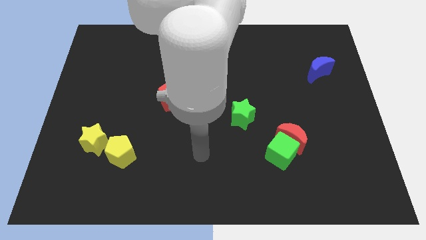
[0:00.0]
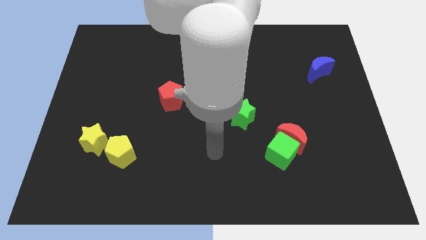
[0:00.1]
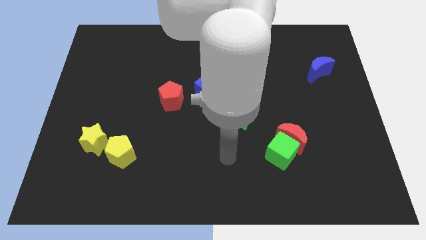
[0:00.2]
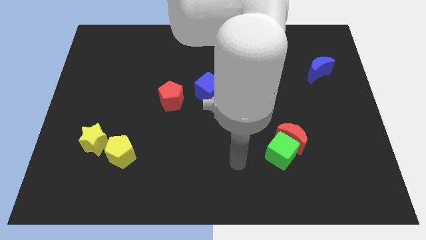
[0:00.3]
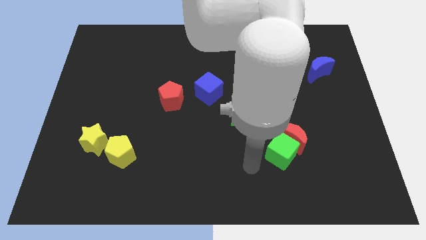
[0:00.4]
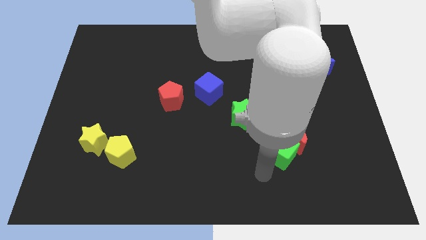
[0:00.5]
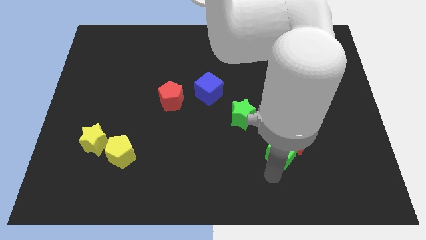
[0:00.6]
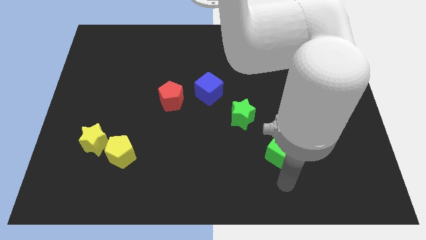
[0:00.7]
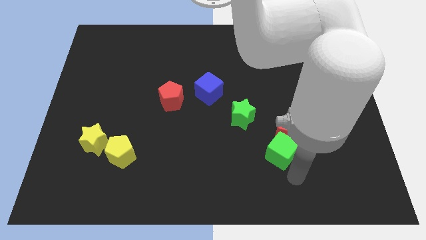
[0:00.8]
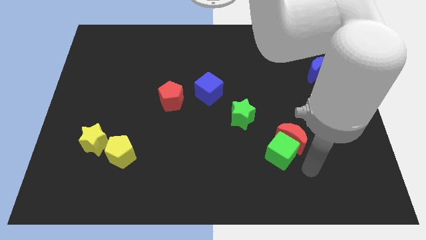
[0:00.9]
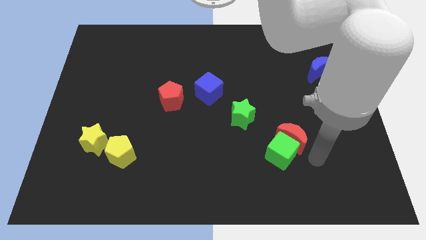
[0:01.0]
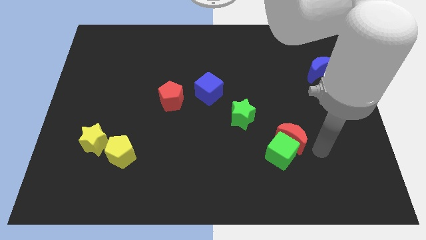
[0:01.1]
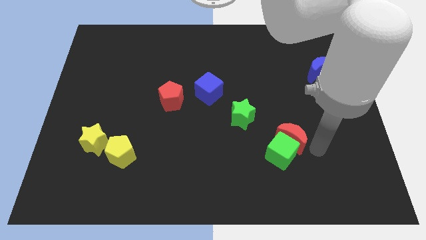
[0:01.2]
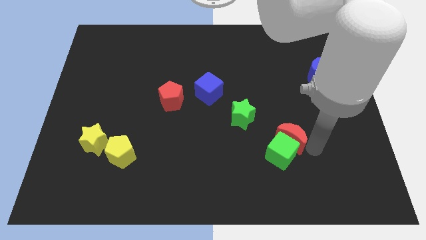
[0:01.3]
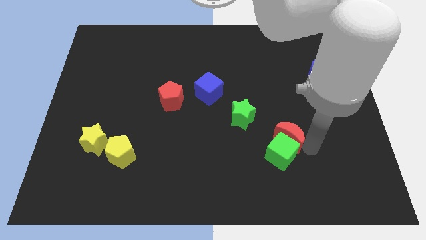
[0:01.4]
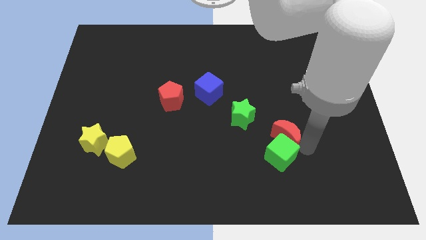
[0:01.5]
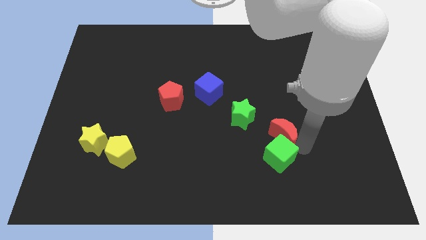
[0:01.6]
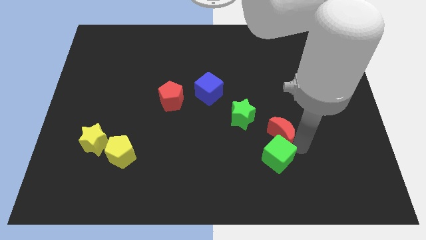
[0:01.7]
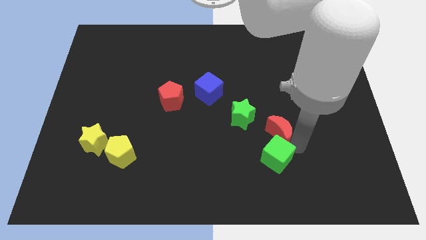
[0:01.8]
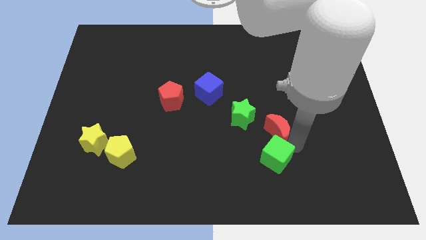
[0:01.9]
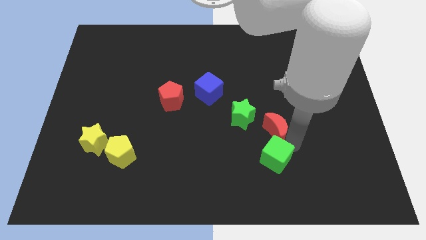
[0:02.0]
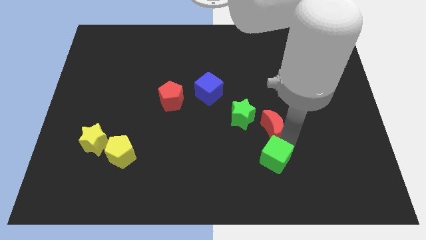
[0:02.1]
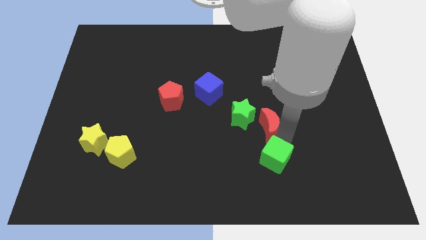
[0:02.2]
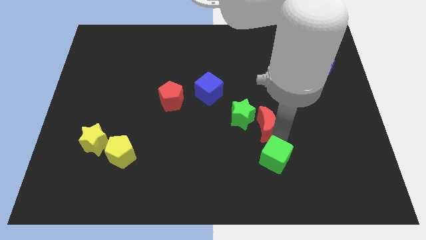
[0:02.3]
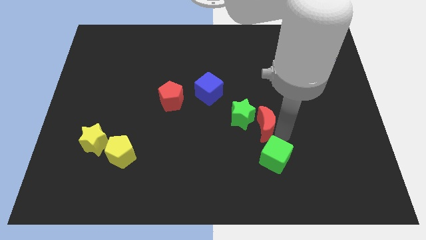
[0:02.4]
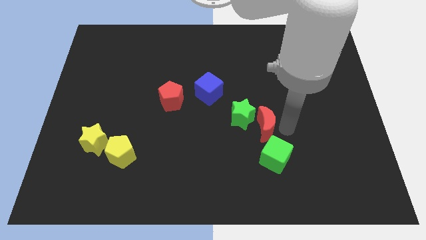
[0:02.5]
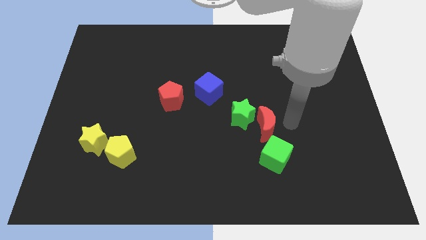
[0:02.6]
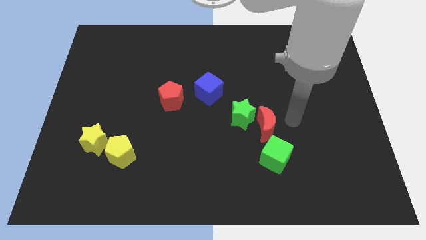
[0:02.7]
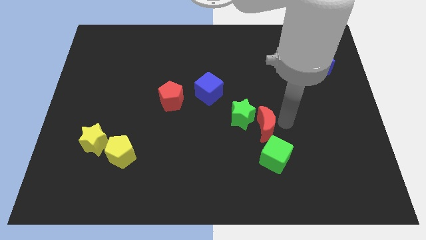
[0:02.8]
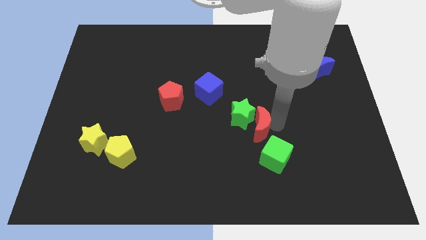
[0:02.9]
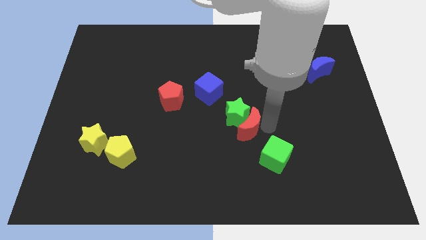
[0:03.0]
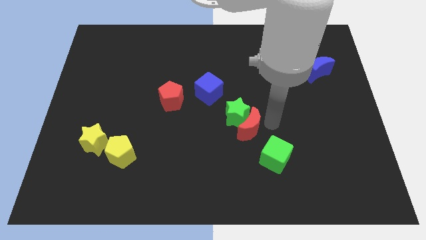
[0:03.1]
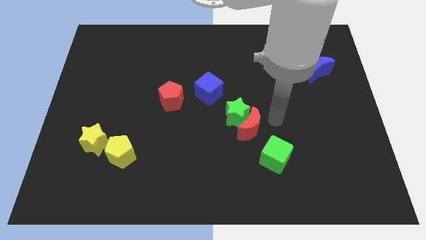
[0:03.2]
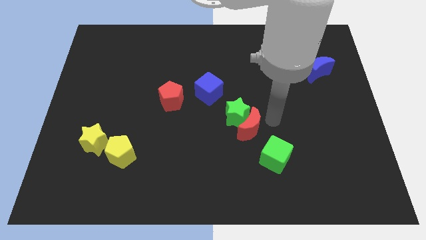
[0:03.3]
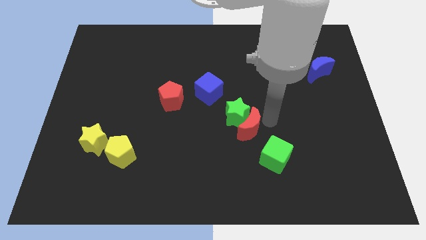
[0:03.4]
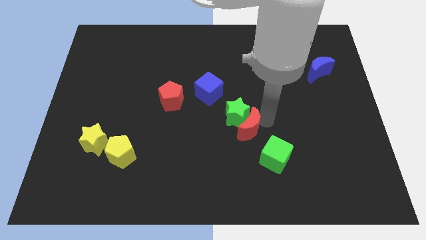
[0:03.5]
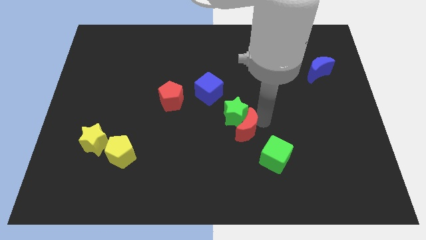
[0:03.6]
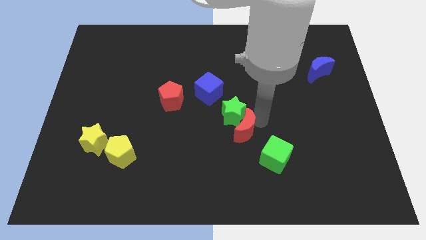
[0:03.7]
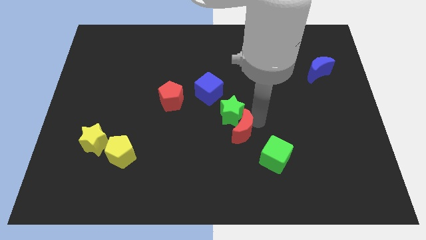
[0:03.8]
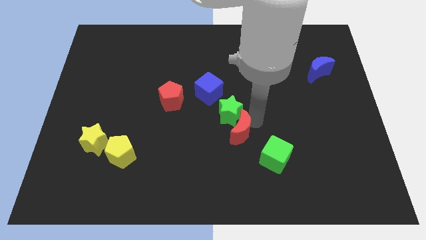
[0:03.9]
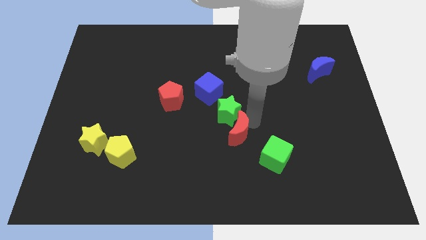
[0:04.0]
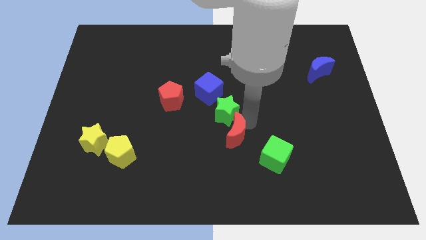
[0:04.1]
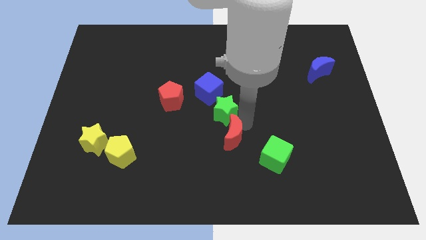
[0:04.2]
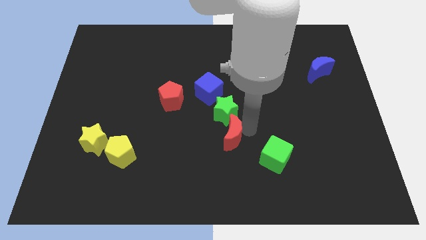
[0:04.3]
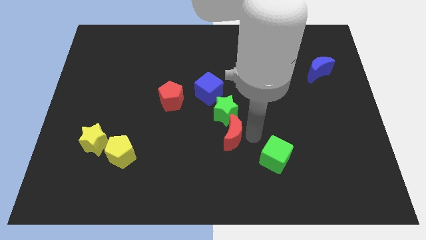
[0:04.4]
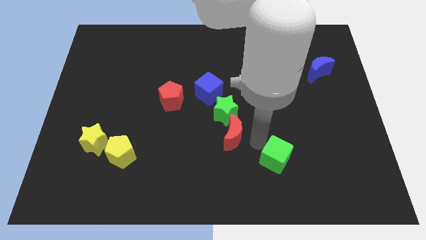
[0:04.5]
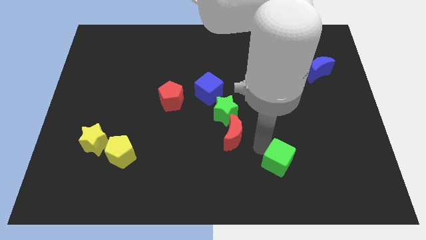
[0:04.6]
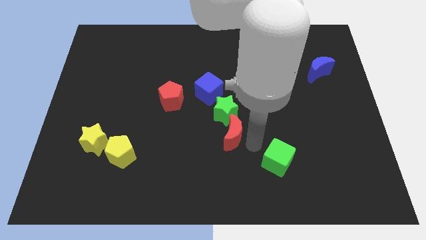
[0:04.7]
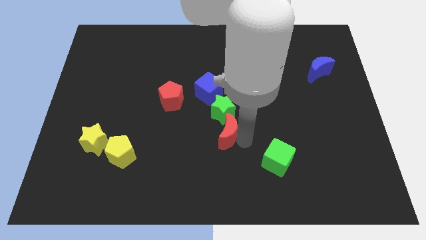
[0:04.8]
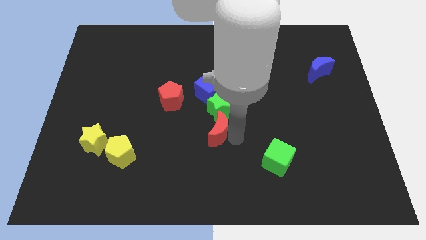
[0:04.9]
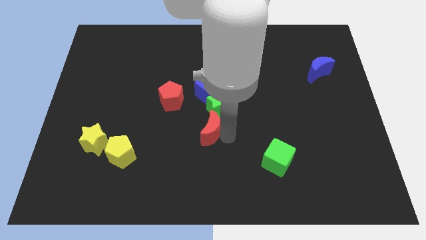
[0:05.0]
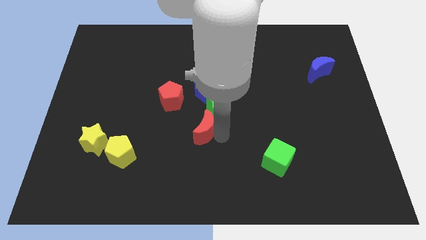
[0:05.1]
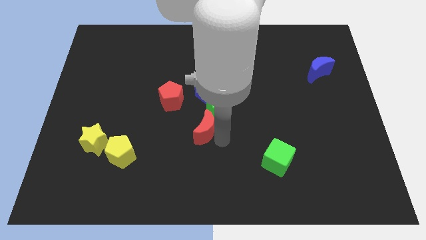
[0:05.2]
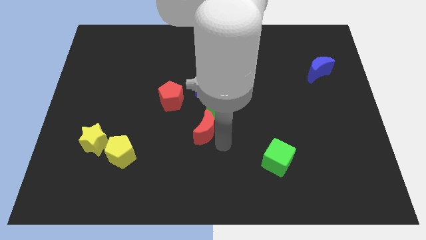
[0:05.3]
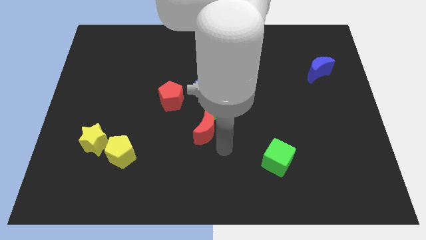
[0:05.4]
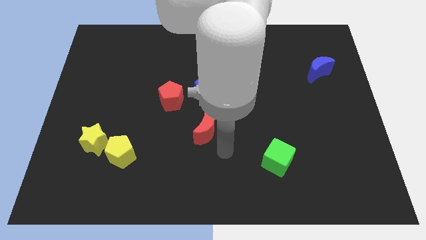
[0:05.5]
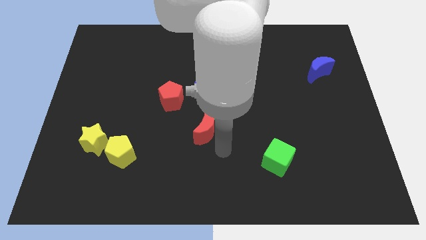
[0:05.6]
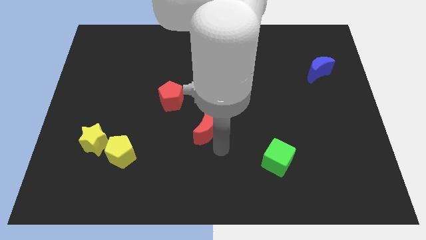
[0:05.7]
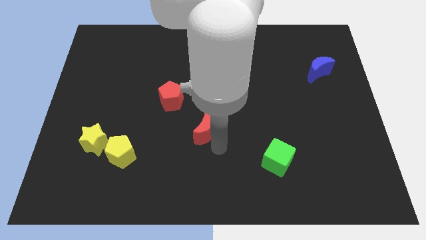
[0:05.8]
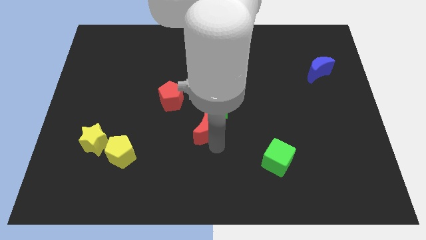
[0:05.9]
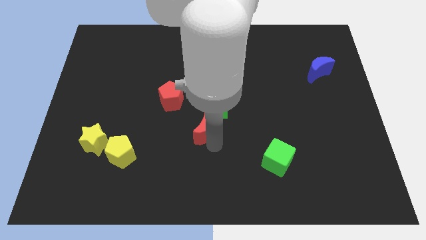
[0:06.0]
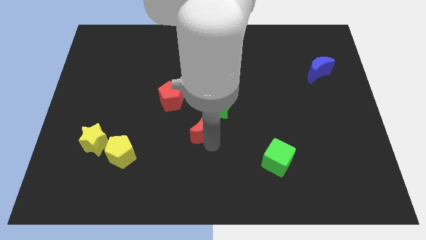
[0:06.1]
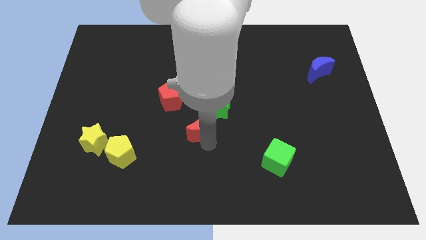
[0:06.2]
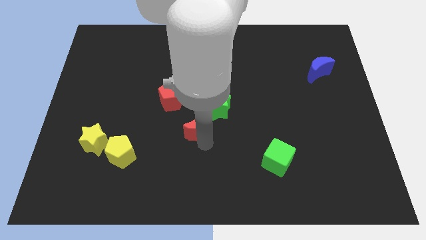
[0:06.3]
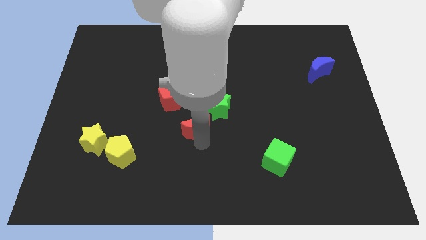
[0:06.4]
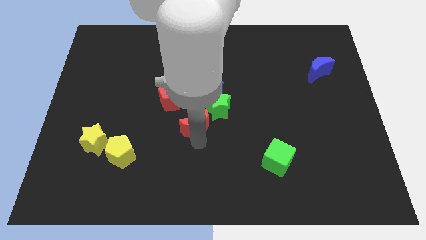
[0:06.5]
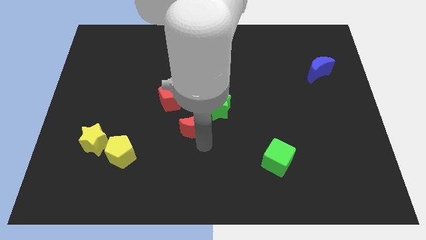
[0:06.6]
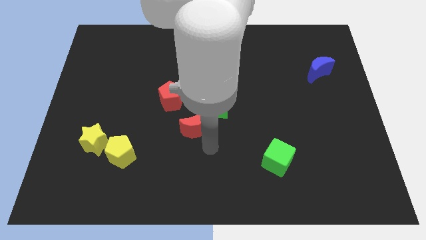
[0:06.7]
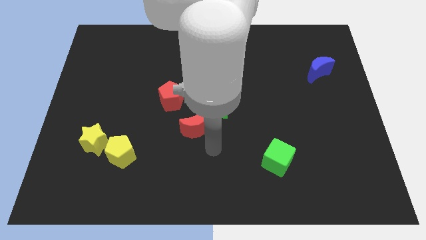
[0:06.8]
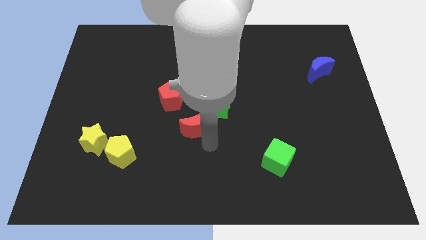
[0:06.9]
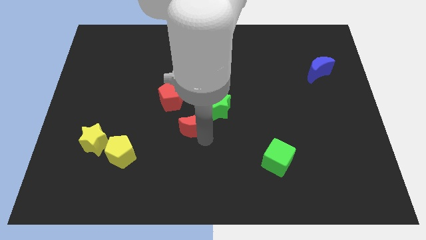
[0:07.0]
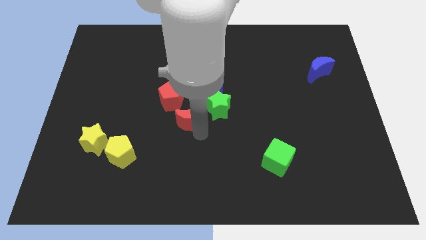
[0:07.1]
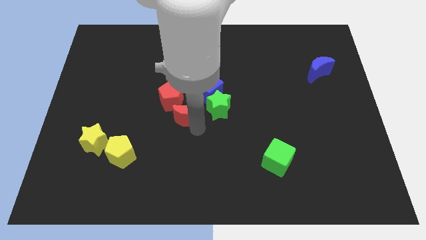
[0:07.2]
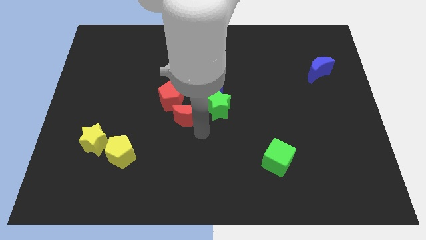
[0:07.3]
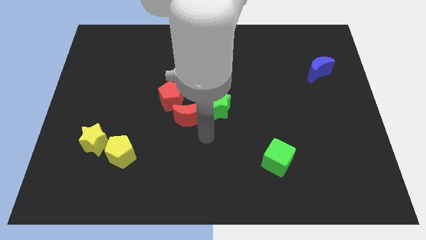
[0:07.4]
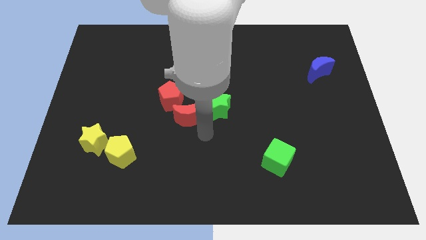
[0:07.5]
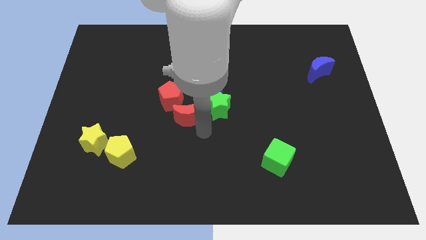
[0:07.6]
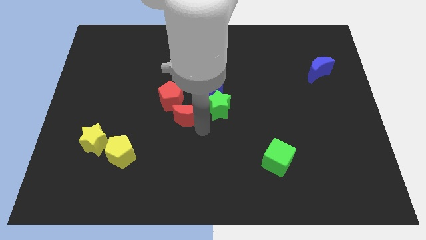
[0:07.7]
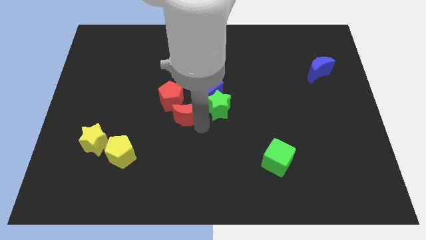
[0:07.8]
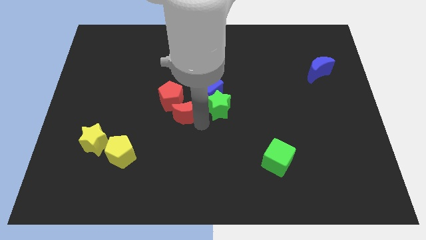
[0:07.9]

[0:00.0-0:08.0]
put the red moon next to the red pentagon
